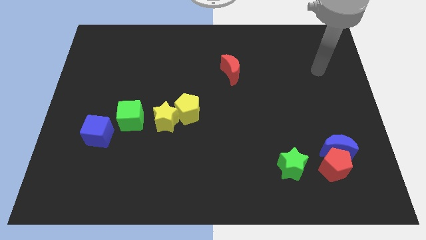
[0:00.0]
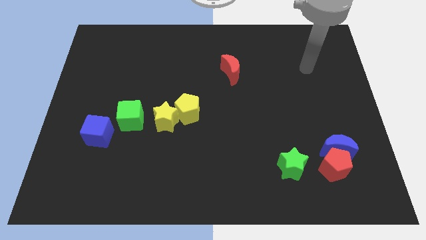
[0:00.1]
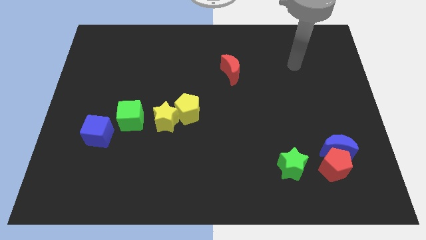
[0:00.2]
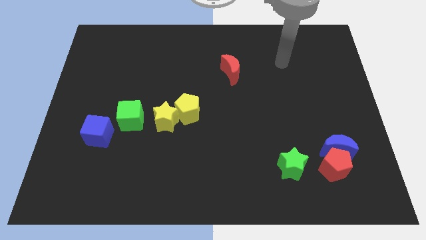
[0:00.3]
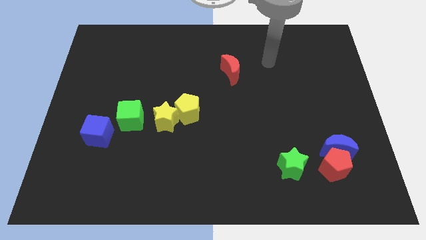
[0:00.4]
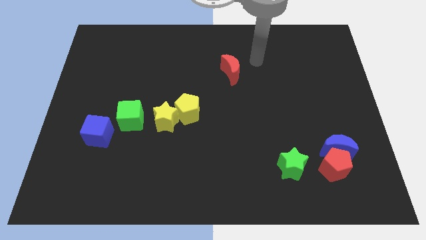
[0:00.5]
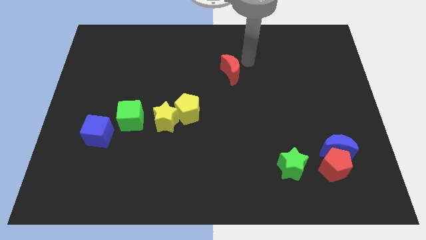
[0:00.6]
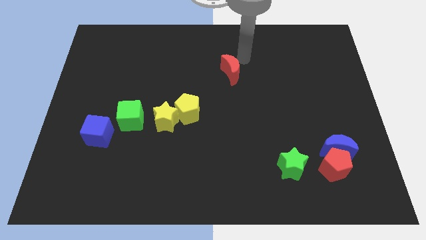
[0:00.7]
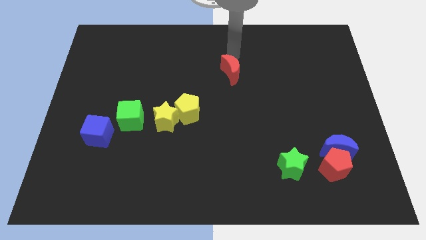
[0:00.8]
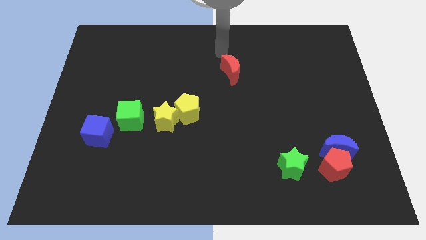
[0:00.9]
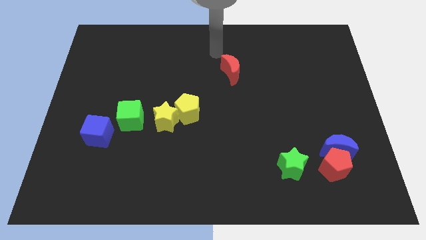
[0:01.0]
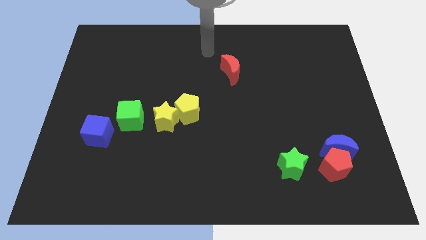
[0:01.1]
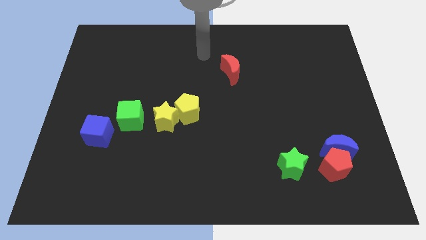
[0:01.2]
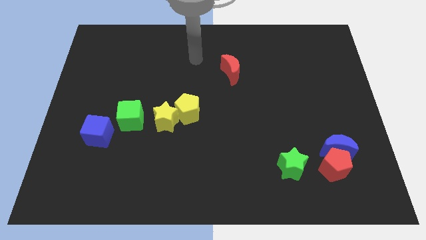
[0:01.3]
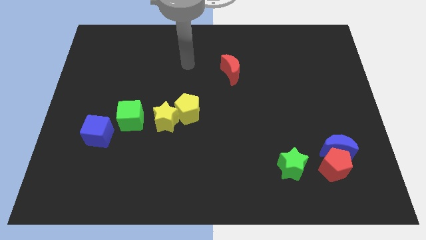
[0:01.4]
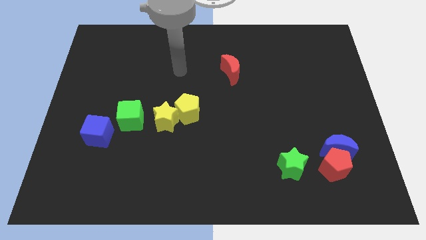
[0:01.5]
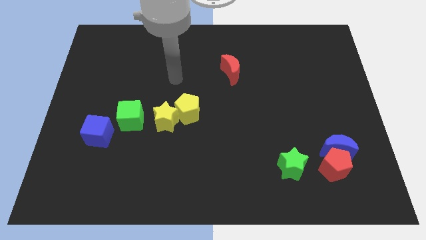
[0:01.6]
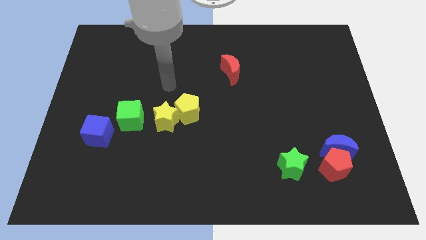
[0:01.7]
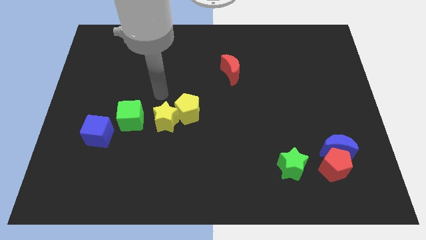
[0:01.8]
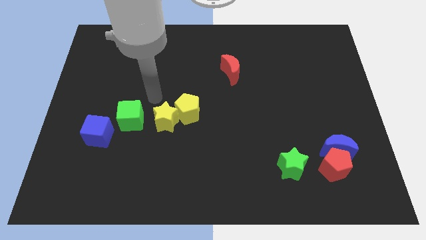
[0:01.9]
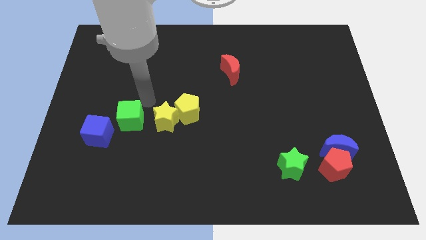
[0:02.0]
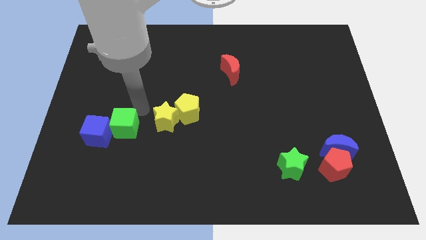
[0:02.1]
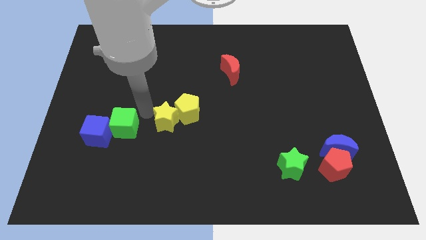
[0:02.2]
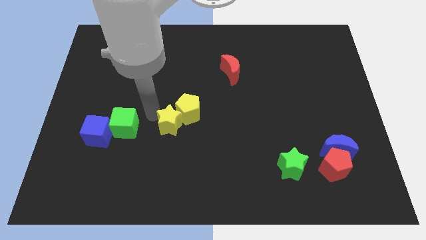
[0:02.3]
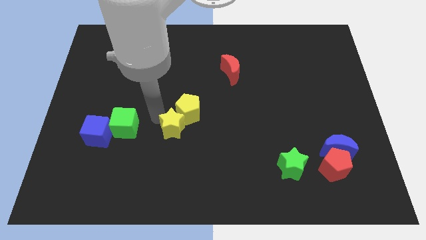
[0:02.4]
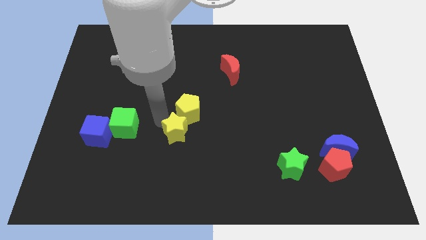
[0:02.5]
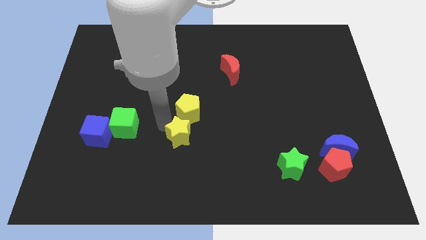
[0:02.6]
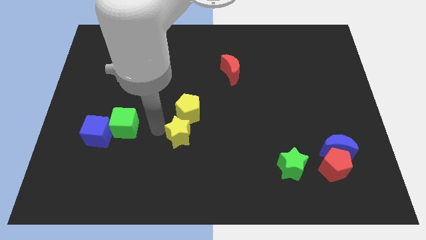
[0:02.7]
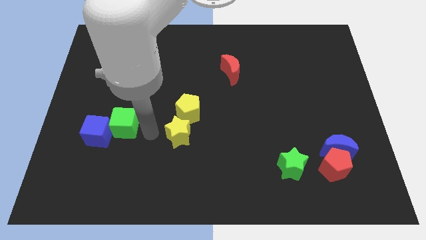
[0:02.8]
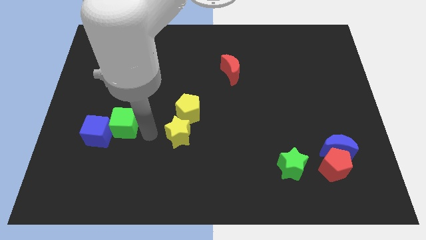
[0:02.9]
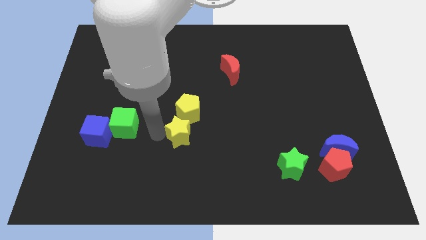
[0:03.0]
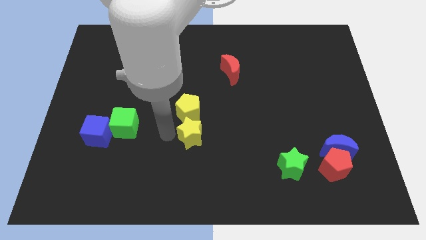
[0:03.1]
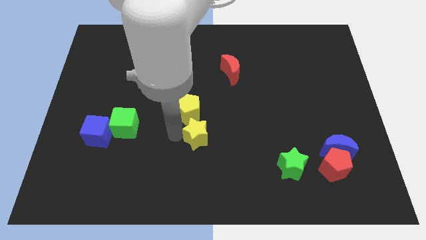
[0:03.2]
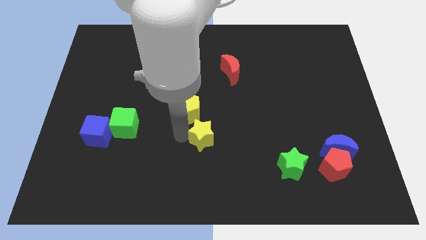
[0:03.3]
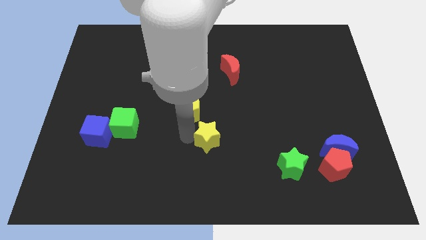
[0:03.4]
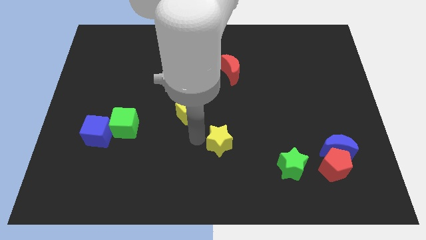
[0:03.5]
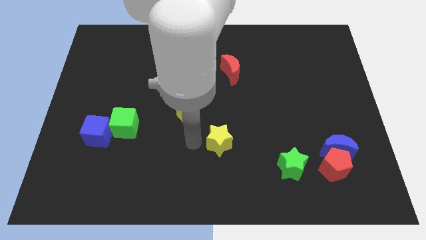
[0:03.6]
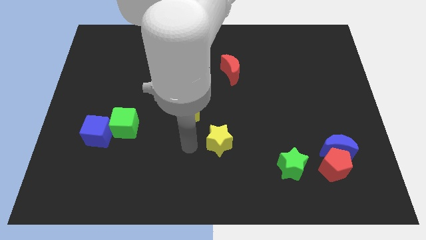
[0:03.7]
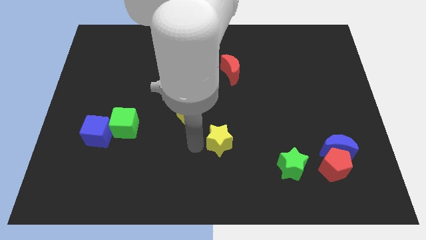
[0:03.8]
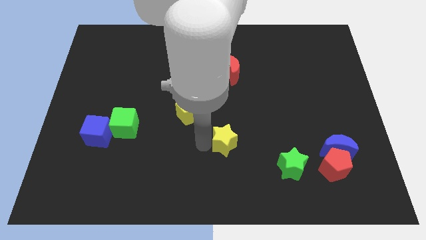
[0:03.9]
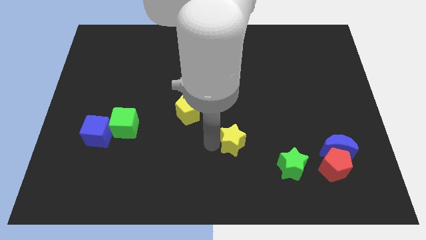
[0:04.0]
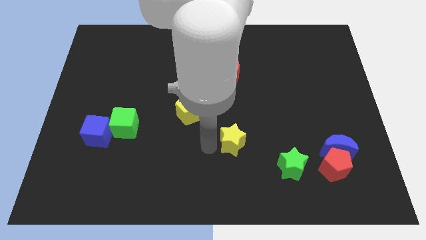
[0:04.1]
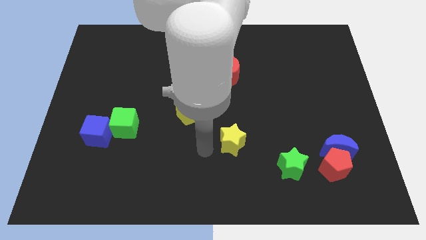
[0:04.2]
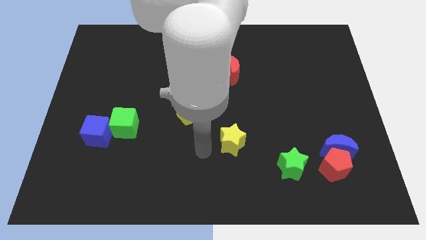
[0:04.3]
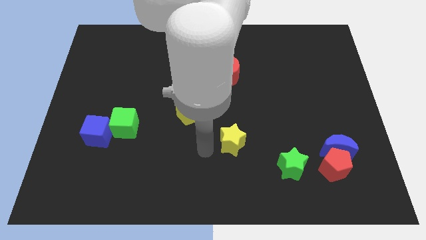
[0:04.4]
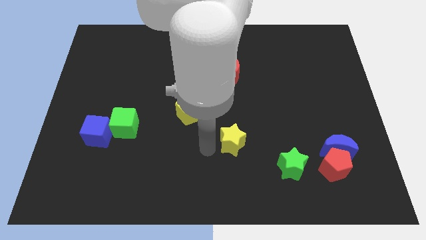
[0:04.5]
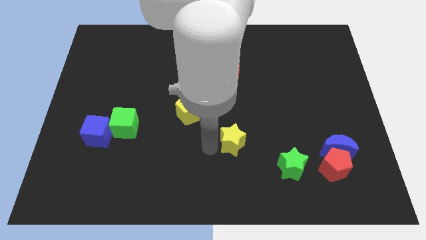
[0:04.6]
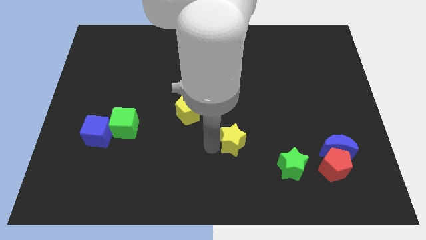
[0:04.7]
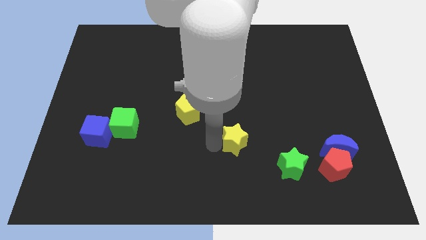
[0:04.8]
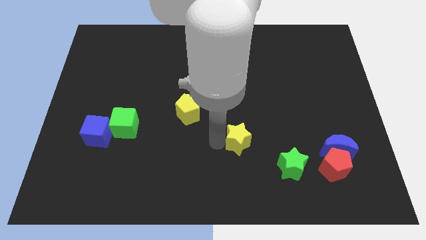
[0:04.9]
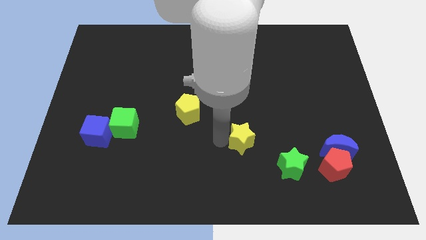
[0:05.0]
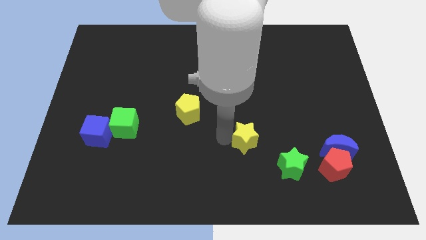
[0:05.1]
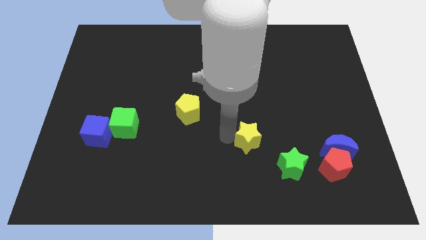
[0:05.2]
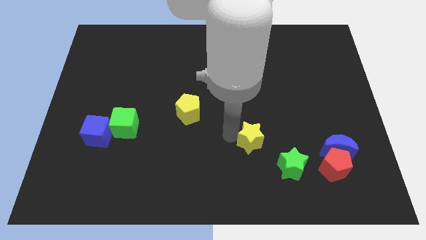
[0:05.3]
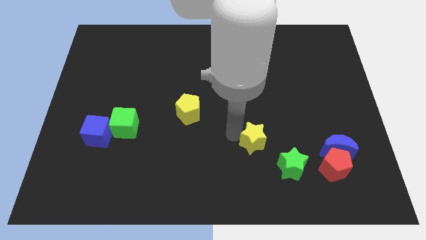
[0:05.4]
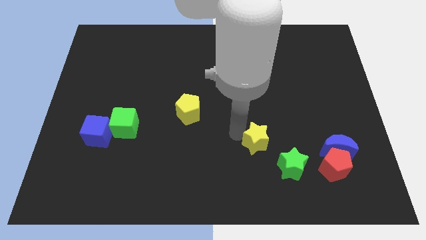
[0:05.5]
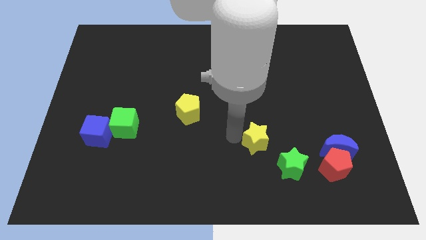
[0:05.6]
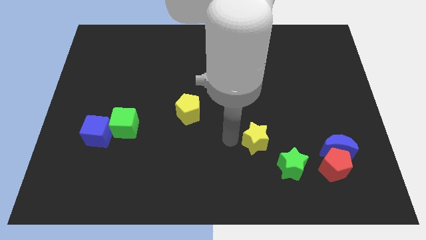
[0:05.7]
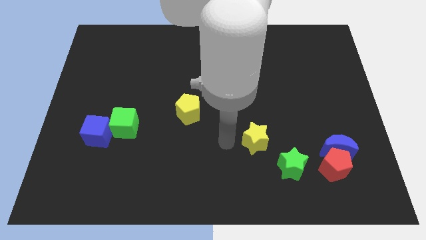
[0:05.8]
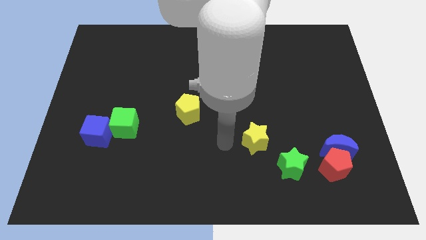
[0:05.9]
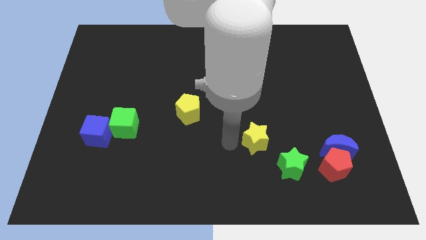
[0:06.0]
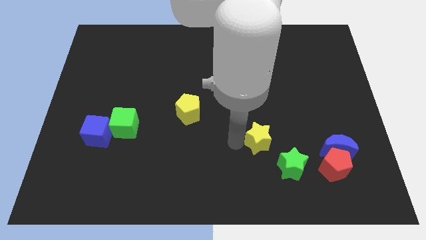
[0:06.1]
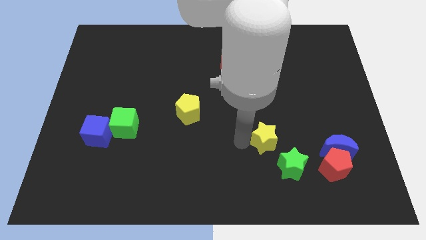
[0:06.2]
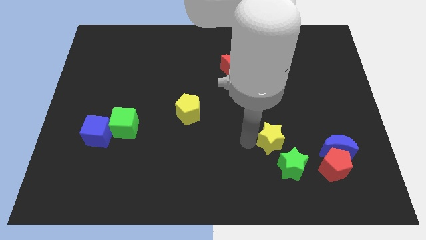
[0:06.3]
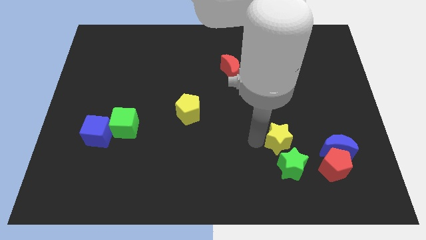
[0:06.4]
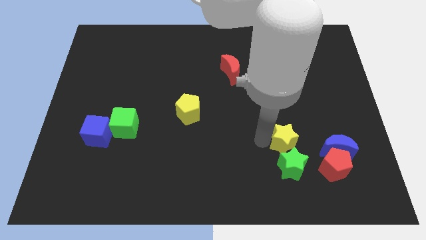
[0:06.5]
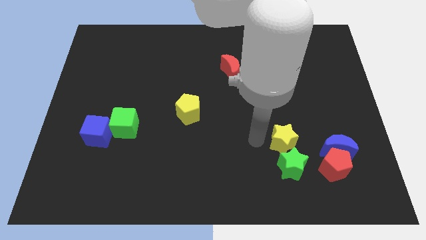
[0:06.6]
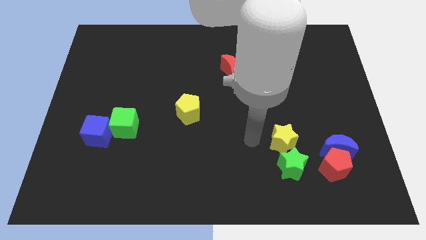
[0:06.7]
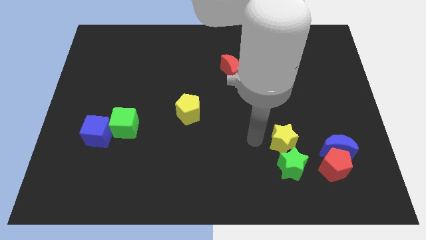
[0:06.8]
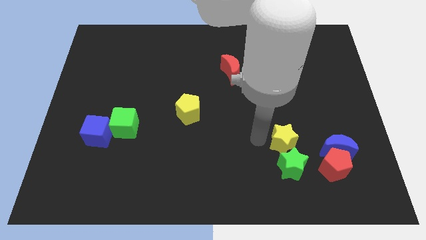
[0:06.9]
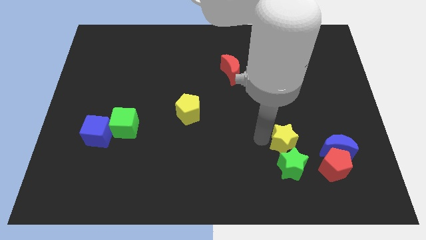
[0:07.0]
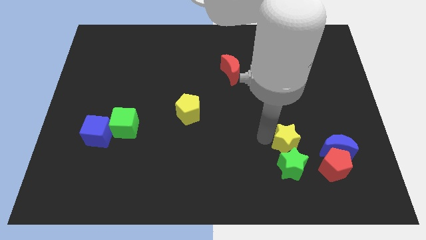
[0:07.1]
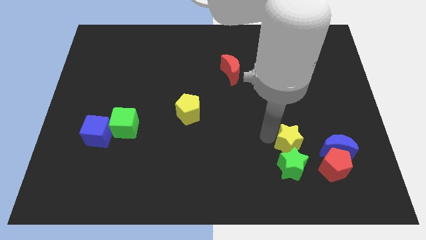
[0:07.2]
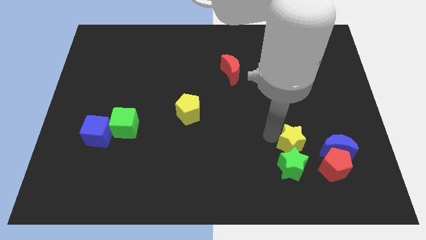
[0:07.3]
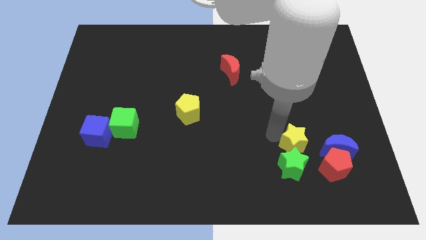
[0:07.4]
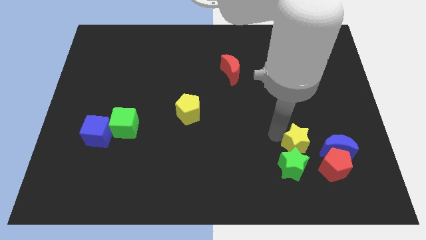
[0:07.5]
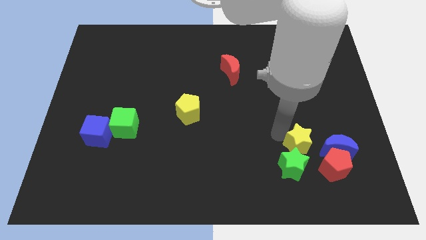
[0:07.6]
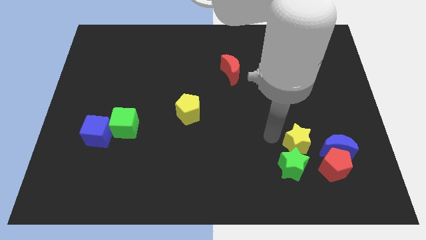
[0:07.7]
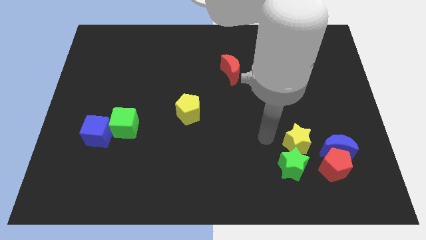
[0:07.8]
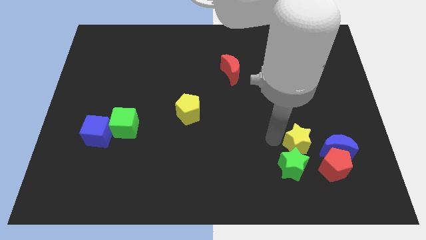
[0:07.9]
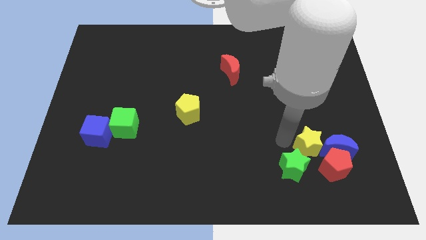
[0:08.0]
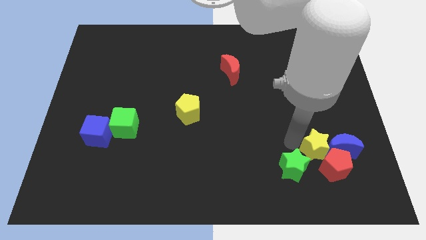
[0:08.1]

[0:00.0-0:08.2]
push the yellow star next to the blue moon
